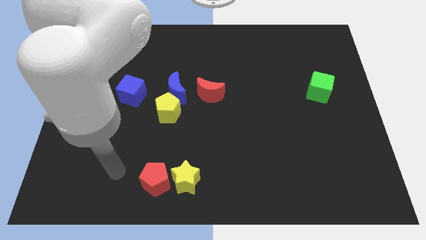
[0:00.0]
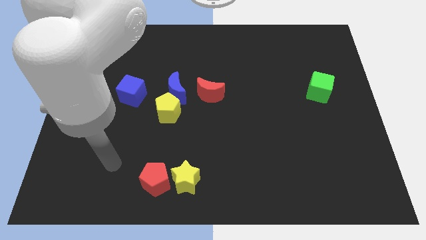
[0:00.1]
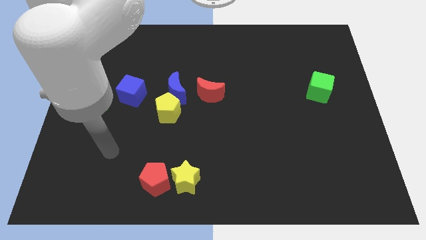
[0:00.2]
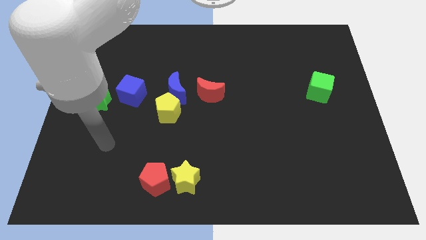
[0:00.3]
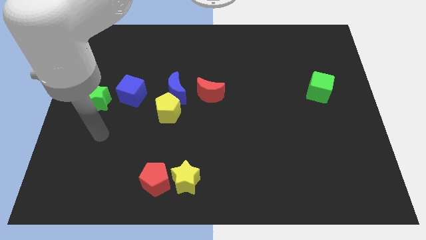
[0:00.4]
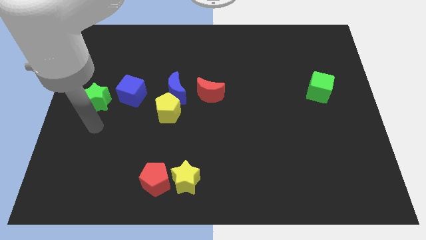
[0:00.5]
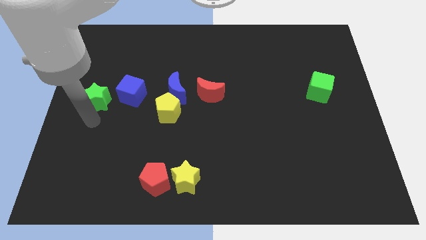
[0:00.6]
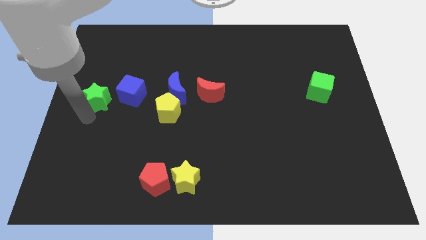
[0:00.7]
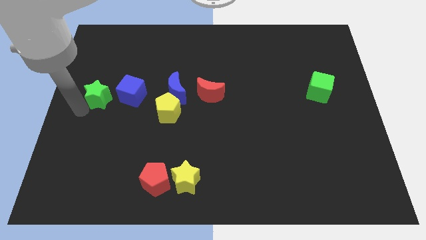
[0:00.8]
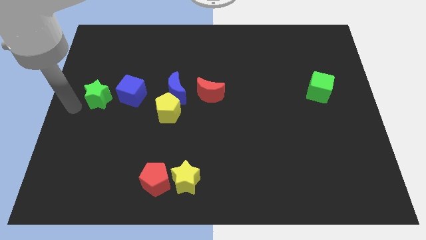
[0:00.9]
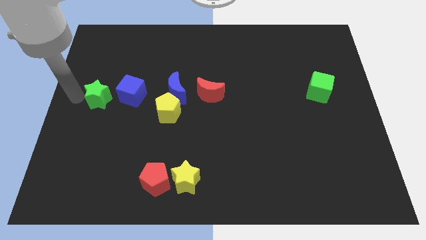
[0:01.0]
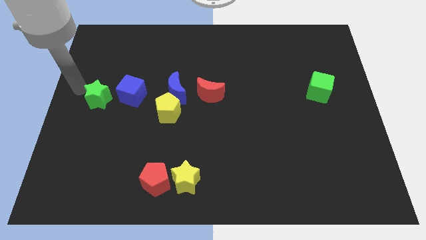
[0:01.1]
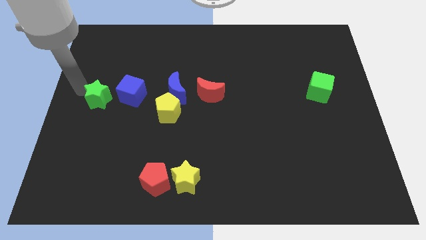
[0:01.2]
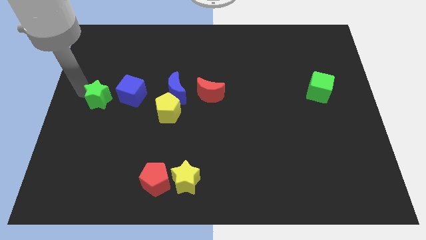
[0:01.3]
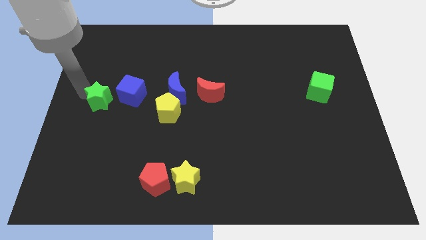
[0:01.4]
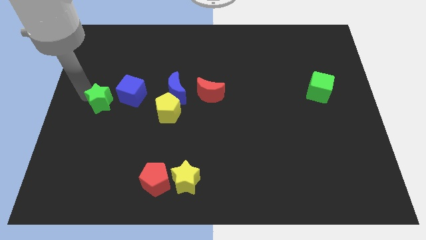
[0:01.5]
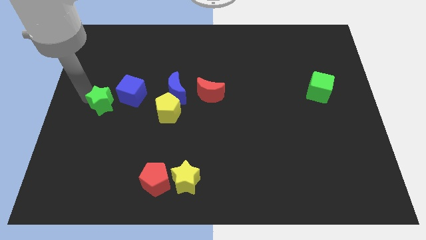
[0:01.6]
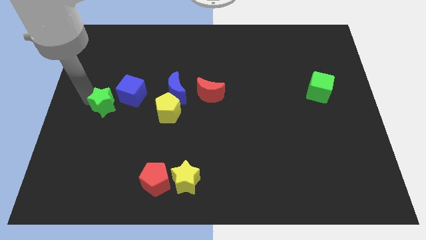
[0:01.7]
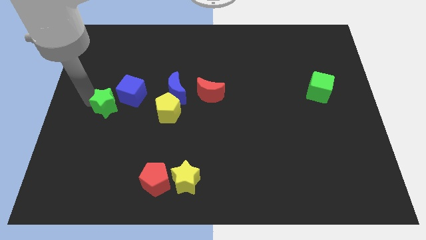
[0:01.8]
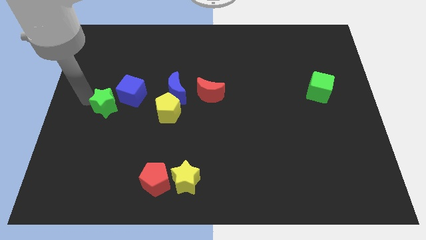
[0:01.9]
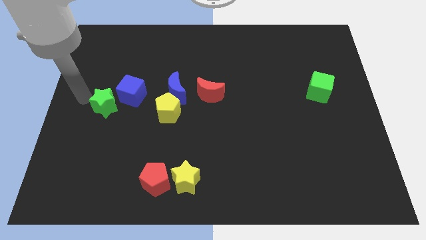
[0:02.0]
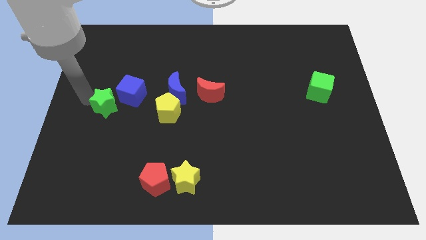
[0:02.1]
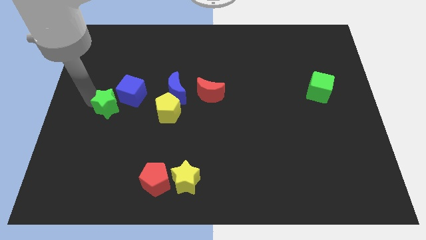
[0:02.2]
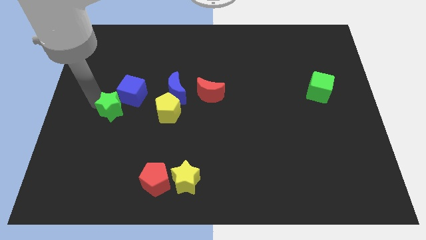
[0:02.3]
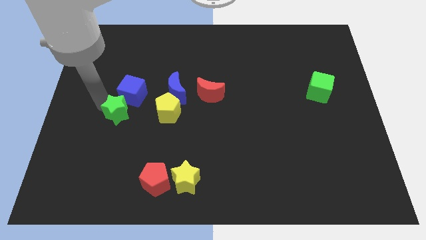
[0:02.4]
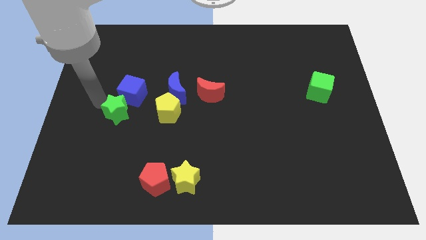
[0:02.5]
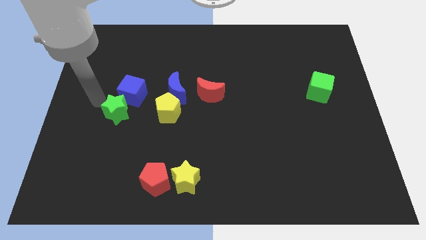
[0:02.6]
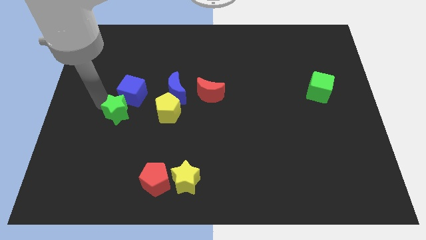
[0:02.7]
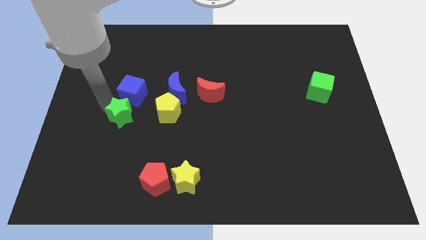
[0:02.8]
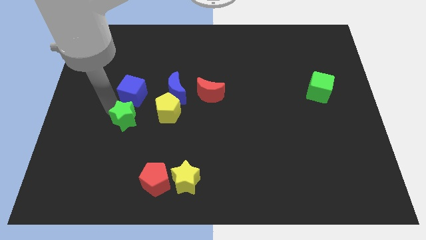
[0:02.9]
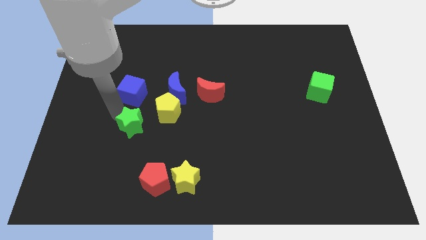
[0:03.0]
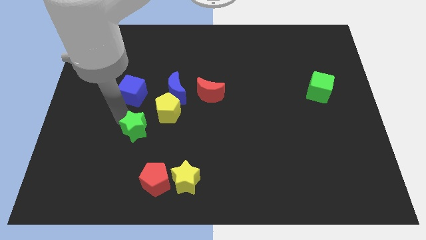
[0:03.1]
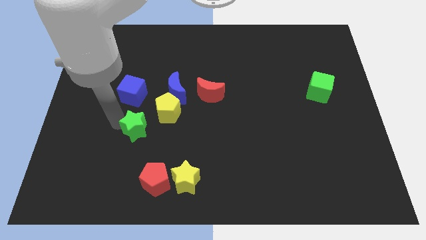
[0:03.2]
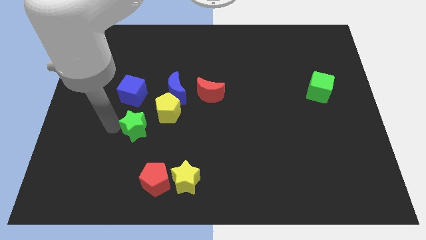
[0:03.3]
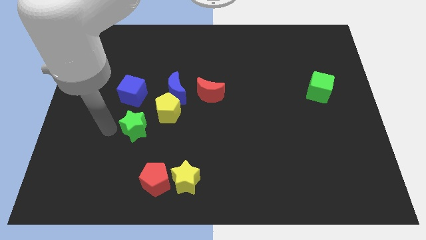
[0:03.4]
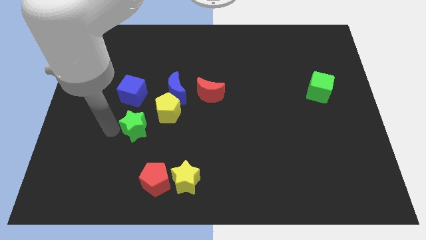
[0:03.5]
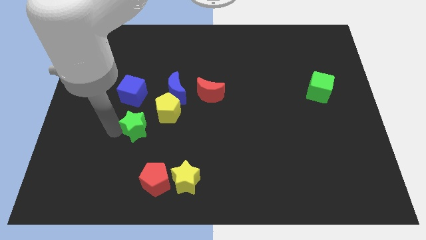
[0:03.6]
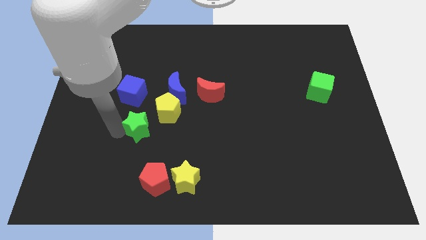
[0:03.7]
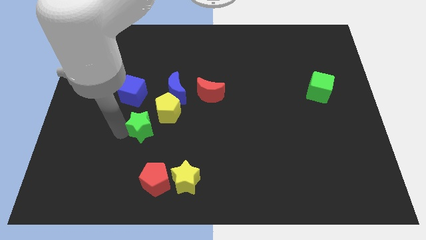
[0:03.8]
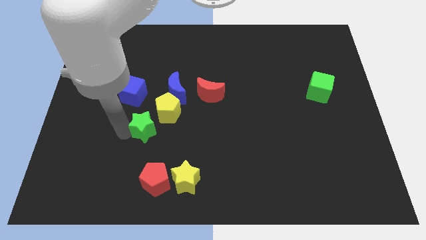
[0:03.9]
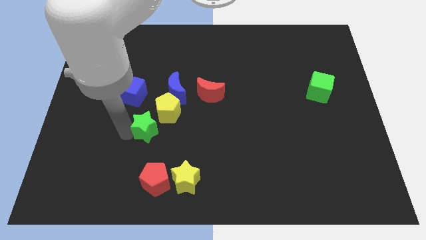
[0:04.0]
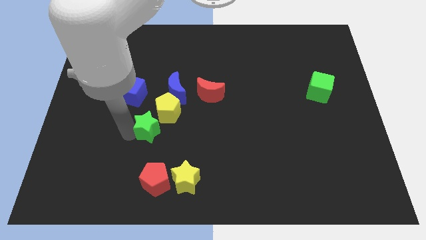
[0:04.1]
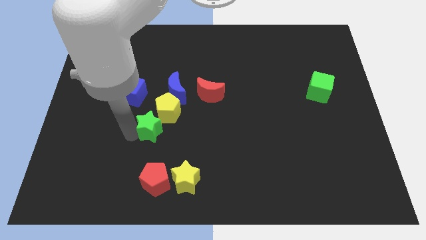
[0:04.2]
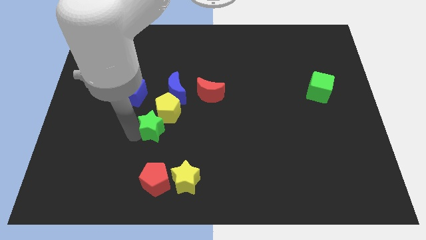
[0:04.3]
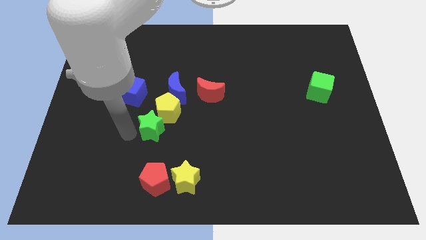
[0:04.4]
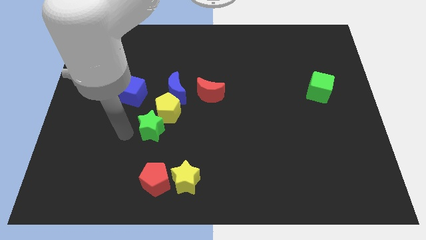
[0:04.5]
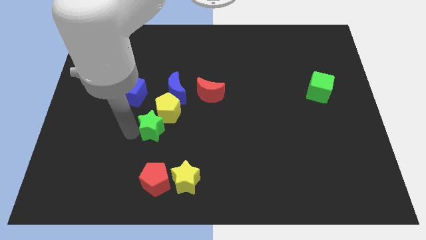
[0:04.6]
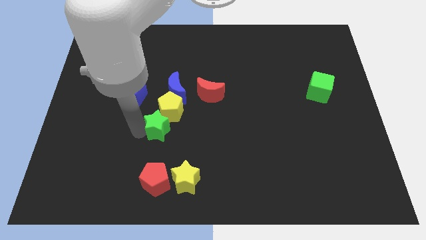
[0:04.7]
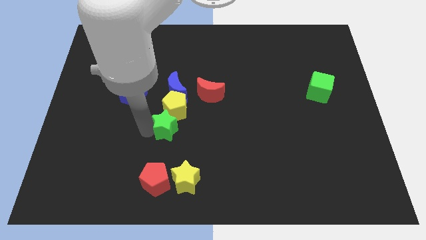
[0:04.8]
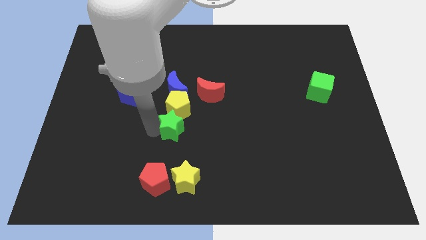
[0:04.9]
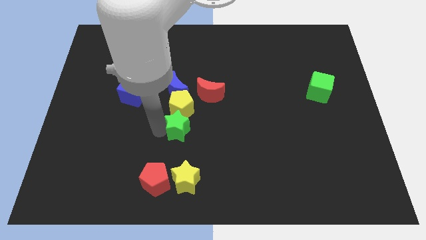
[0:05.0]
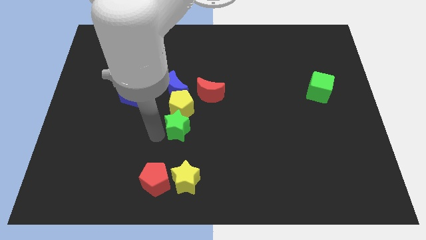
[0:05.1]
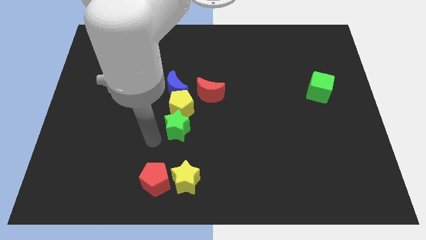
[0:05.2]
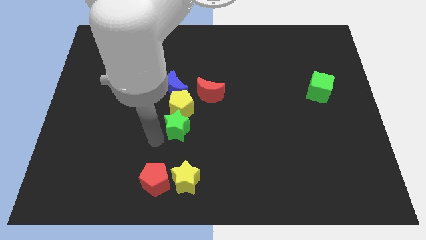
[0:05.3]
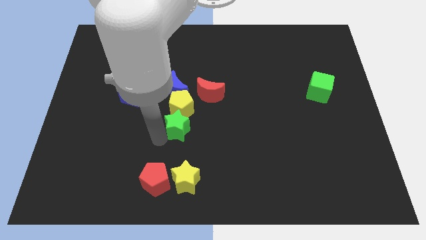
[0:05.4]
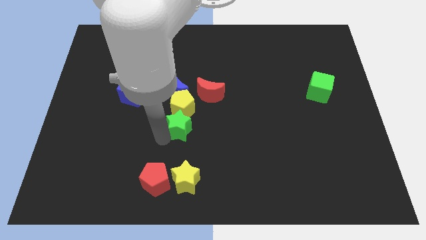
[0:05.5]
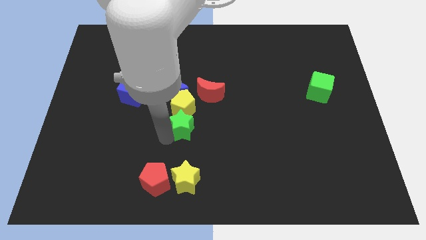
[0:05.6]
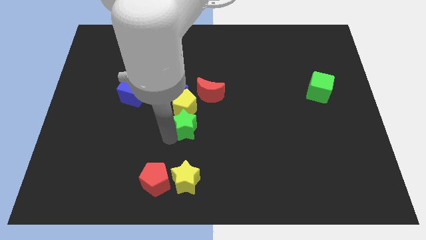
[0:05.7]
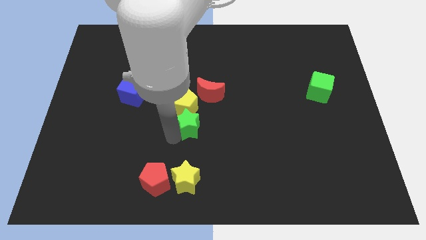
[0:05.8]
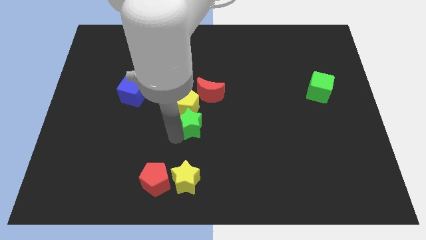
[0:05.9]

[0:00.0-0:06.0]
push the green star right

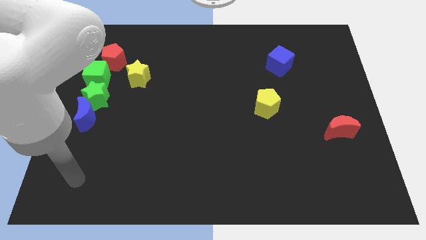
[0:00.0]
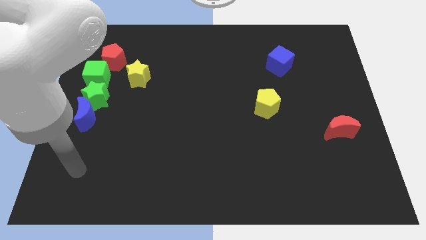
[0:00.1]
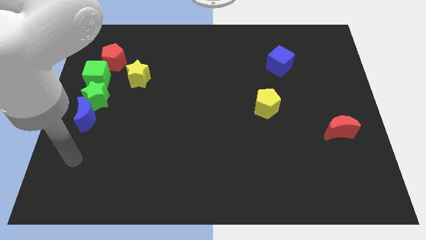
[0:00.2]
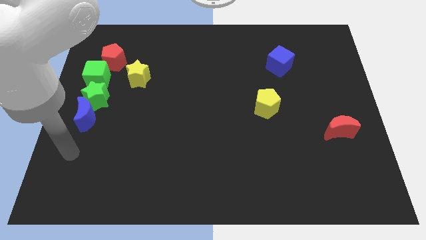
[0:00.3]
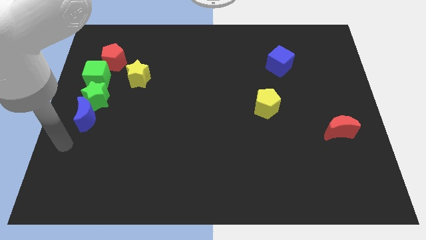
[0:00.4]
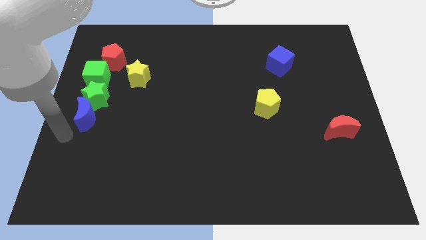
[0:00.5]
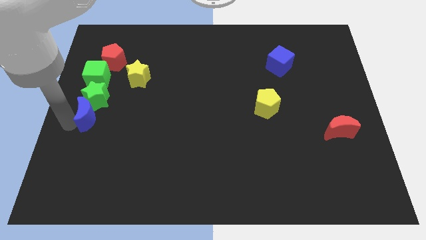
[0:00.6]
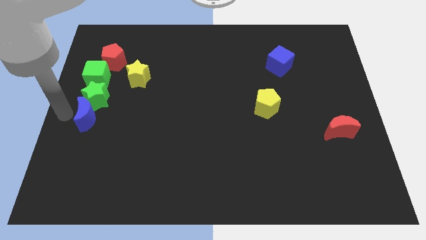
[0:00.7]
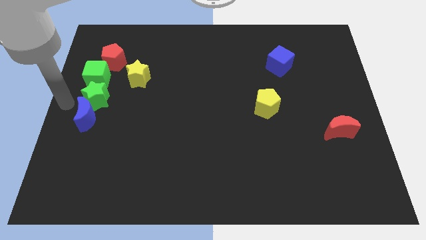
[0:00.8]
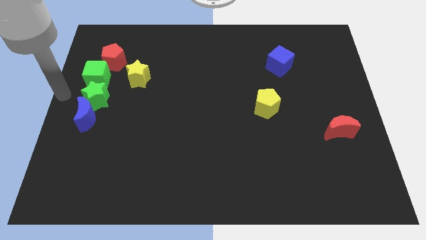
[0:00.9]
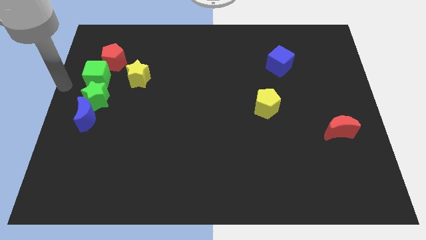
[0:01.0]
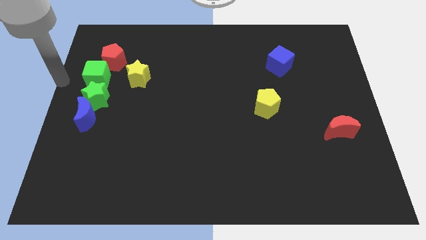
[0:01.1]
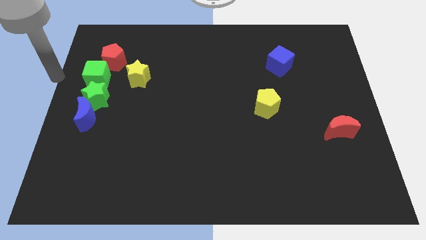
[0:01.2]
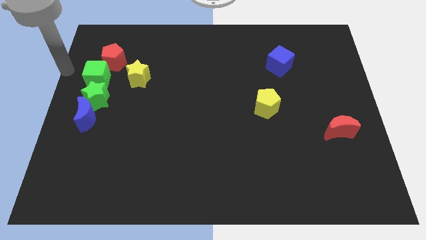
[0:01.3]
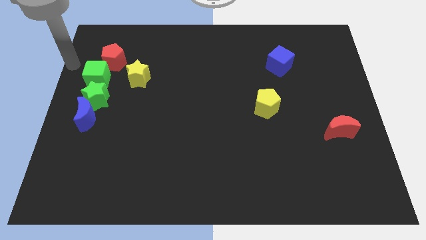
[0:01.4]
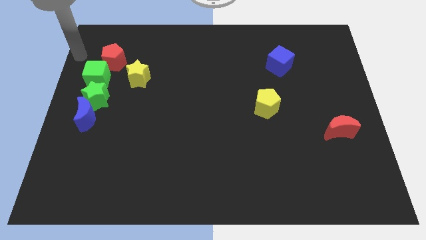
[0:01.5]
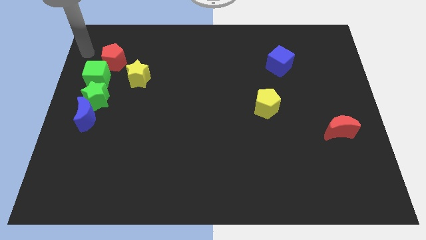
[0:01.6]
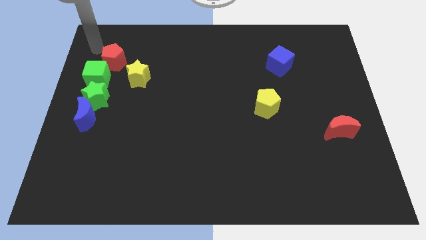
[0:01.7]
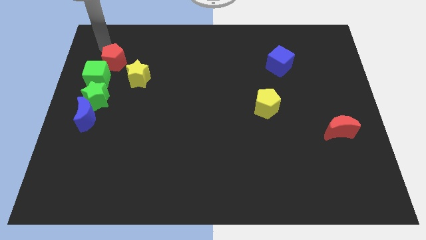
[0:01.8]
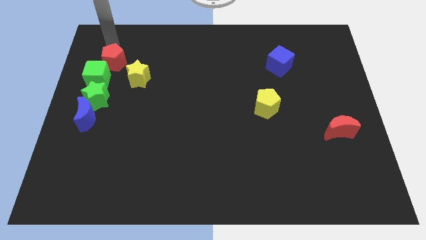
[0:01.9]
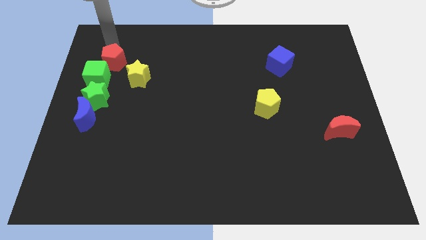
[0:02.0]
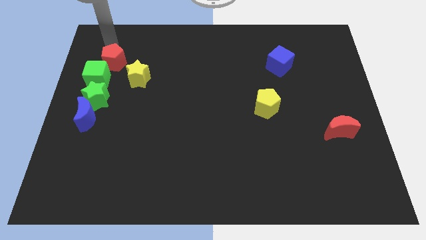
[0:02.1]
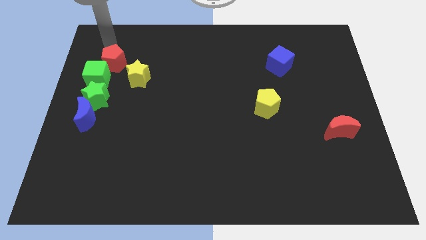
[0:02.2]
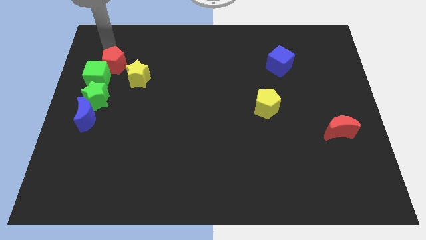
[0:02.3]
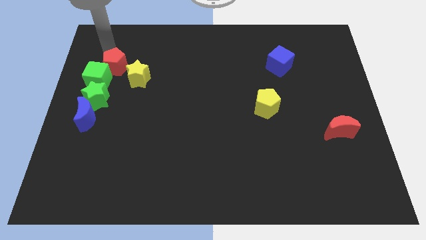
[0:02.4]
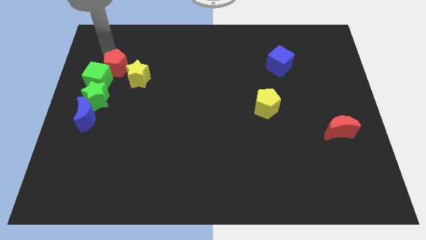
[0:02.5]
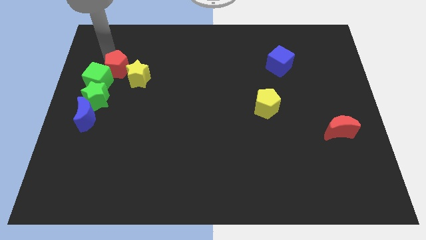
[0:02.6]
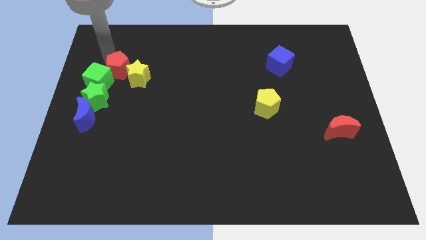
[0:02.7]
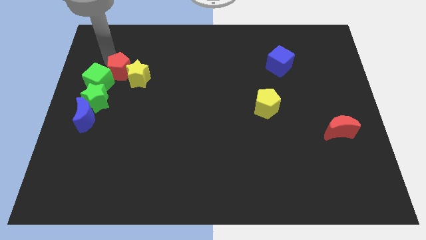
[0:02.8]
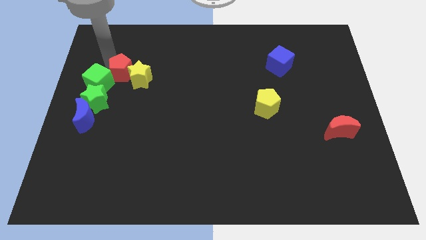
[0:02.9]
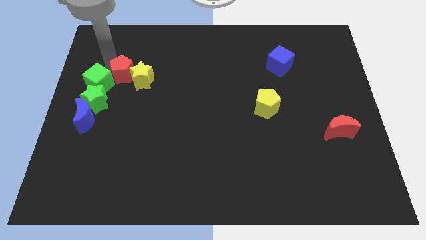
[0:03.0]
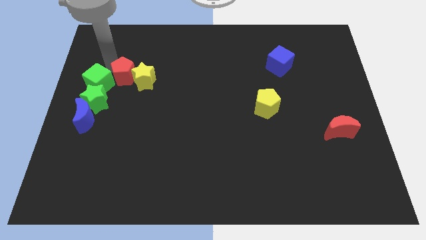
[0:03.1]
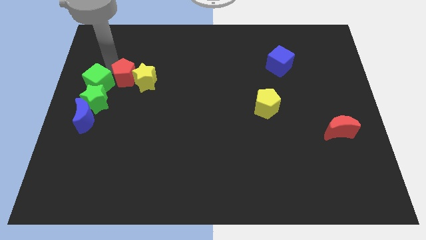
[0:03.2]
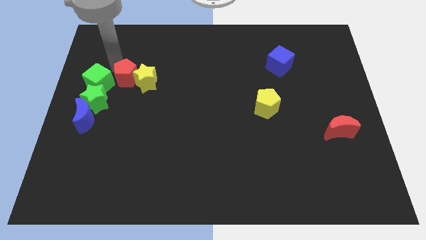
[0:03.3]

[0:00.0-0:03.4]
move the red pentagon downwards and then to the right a bit
